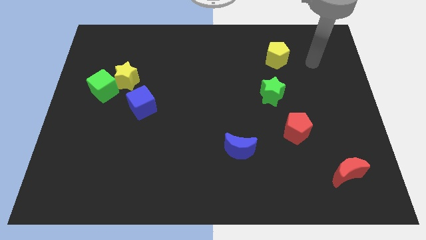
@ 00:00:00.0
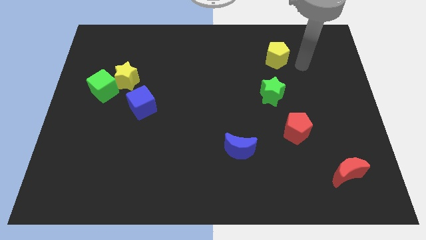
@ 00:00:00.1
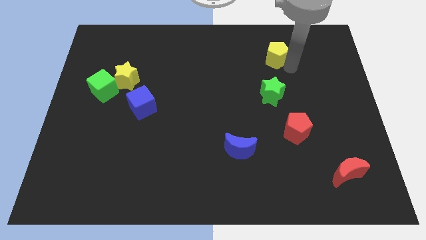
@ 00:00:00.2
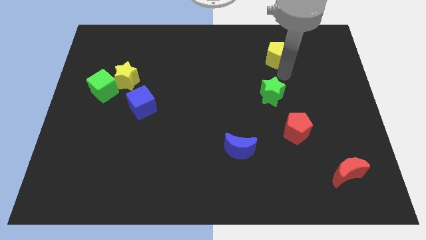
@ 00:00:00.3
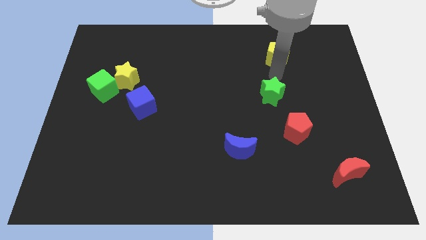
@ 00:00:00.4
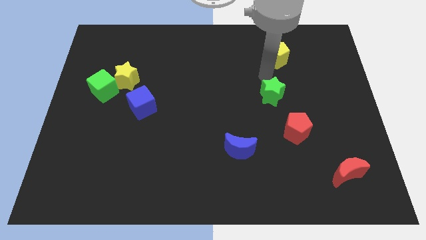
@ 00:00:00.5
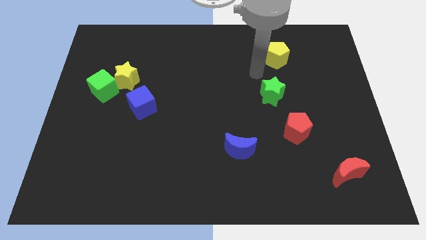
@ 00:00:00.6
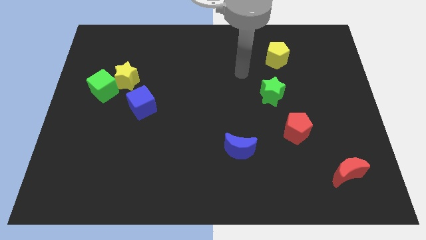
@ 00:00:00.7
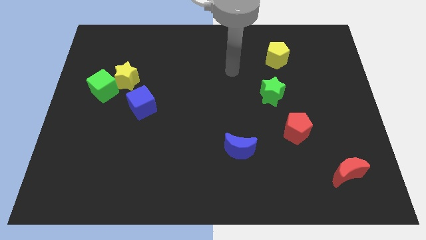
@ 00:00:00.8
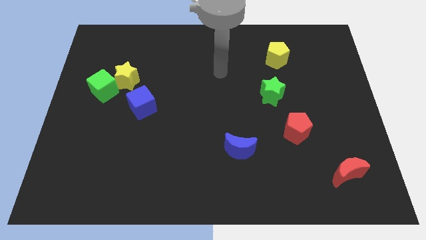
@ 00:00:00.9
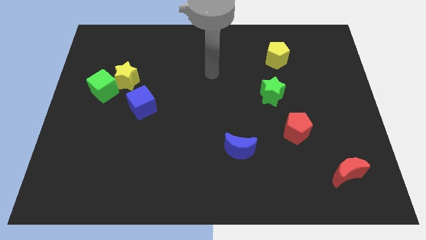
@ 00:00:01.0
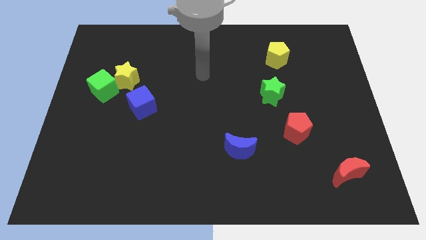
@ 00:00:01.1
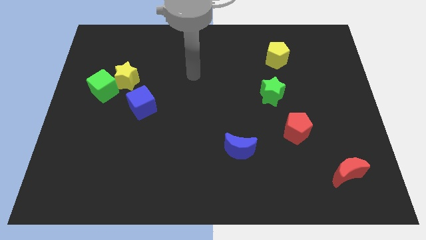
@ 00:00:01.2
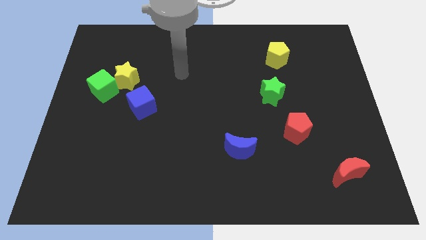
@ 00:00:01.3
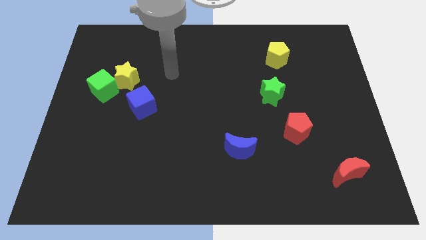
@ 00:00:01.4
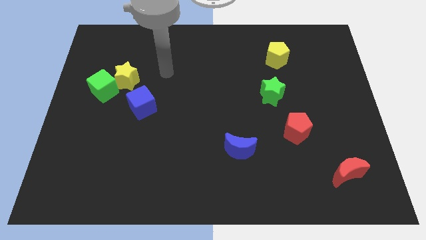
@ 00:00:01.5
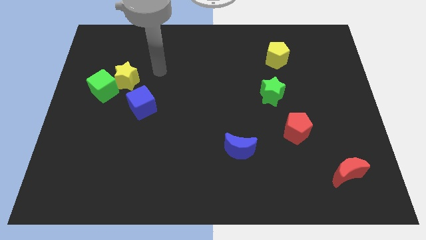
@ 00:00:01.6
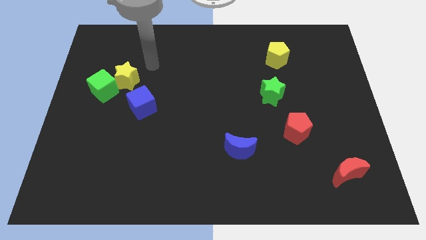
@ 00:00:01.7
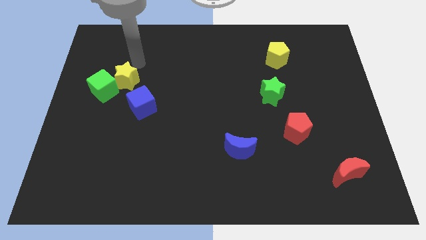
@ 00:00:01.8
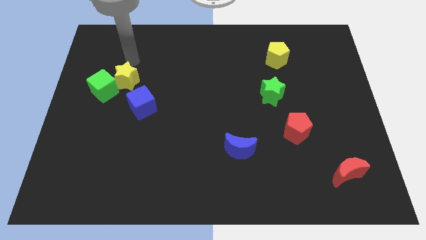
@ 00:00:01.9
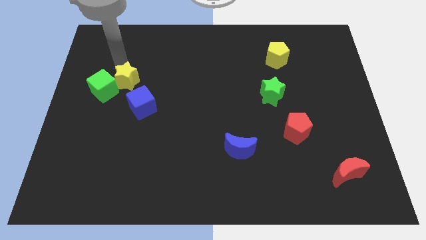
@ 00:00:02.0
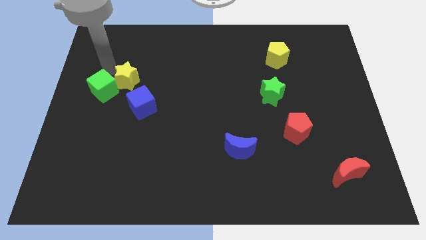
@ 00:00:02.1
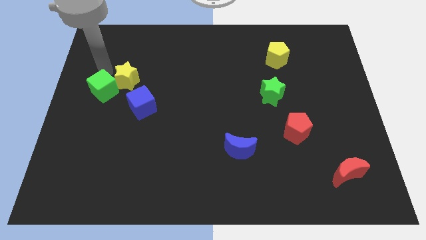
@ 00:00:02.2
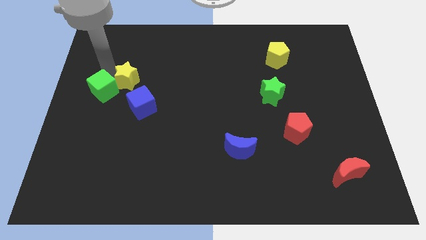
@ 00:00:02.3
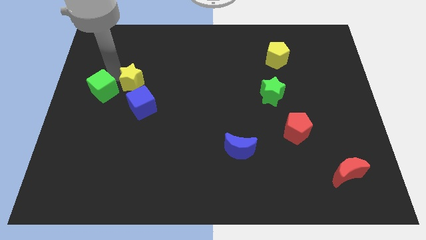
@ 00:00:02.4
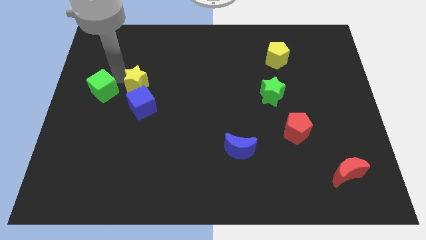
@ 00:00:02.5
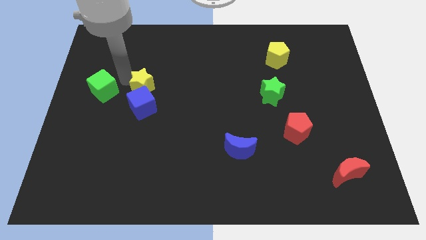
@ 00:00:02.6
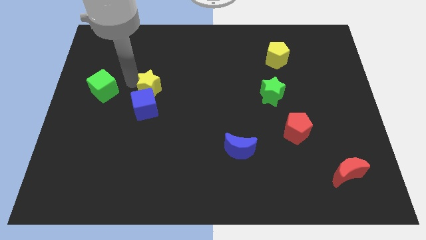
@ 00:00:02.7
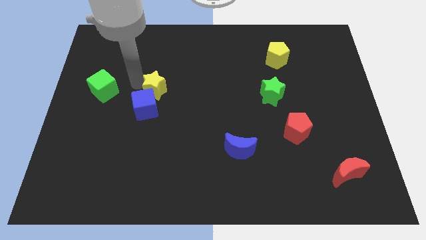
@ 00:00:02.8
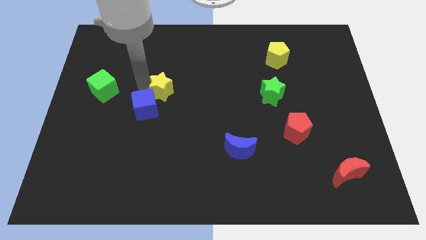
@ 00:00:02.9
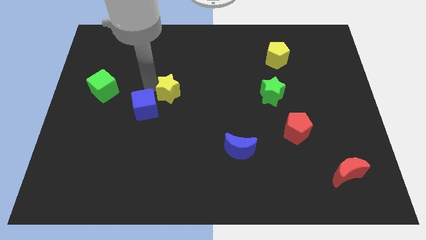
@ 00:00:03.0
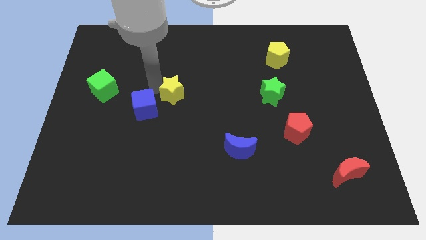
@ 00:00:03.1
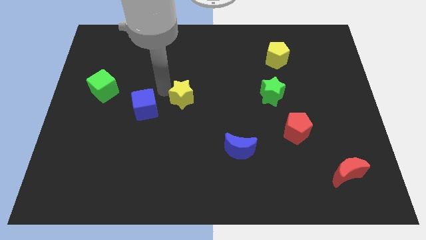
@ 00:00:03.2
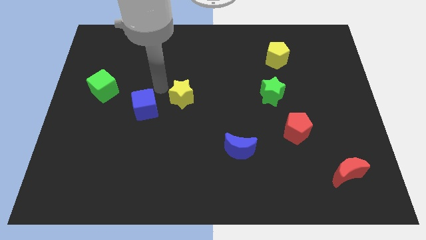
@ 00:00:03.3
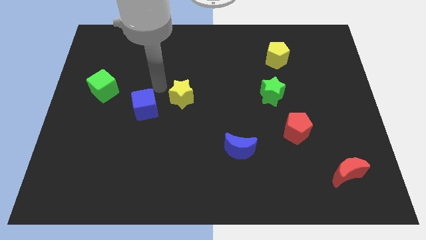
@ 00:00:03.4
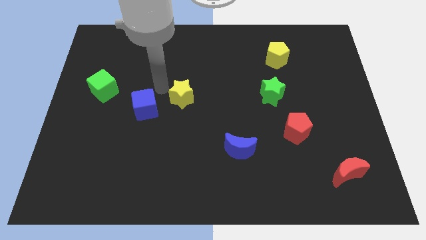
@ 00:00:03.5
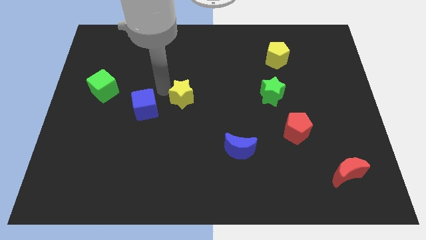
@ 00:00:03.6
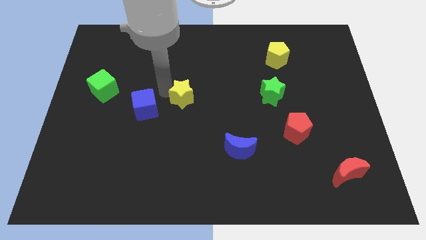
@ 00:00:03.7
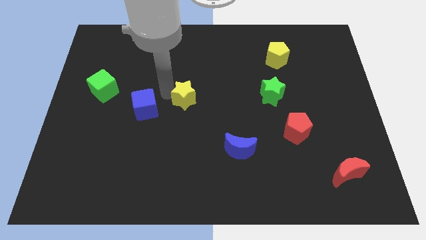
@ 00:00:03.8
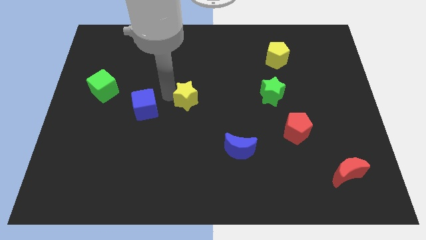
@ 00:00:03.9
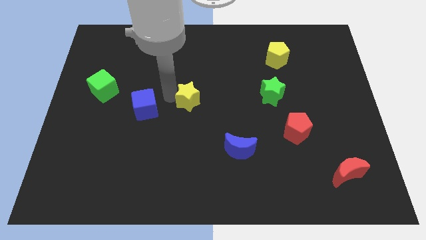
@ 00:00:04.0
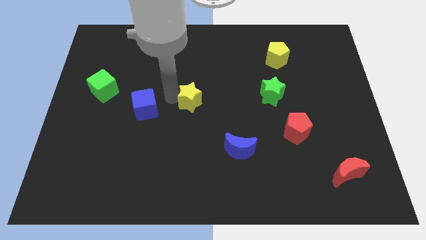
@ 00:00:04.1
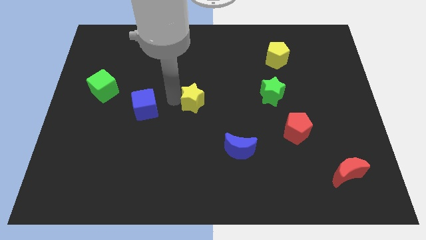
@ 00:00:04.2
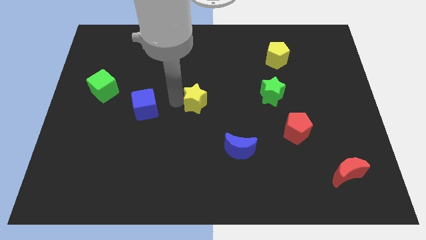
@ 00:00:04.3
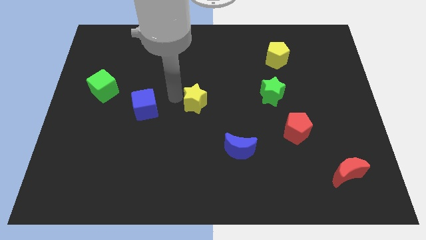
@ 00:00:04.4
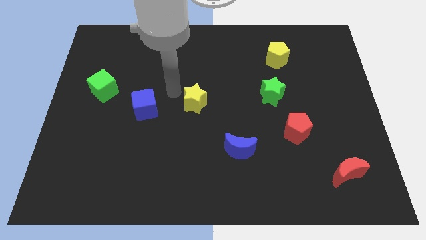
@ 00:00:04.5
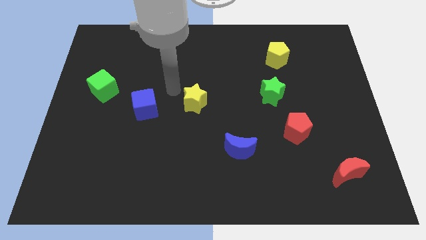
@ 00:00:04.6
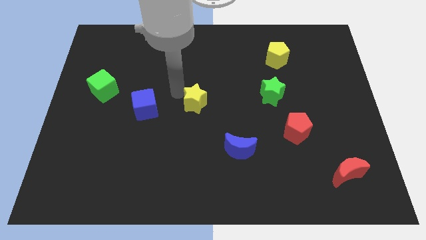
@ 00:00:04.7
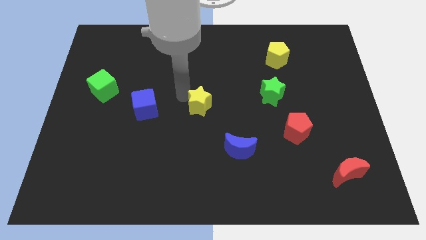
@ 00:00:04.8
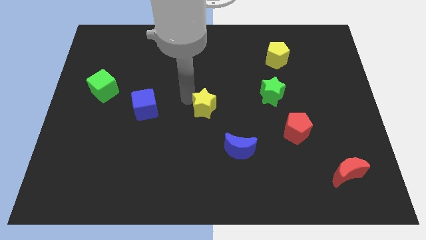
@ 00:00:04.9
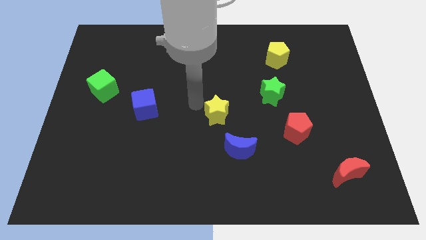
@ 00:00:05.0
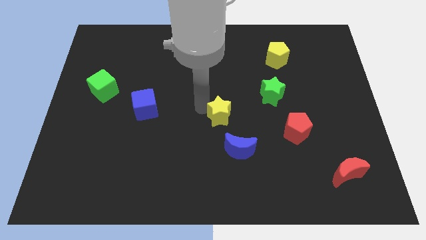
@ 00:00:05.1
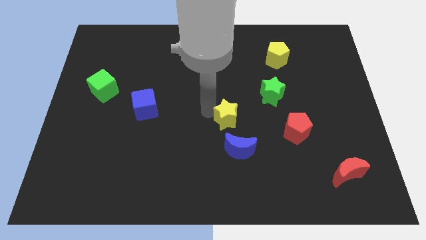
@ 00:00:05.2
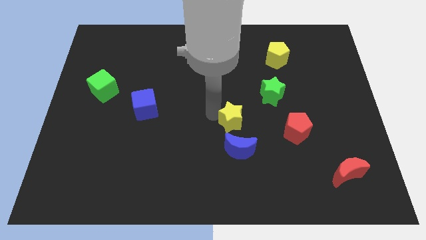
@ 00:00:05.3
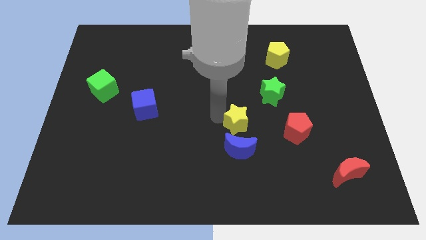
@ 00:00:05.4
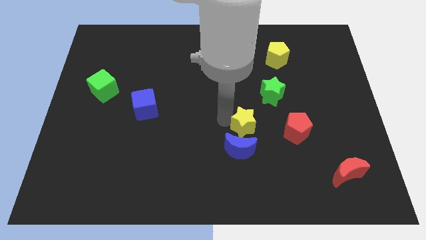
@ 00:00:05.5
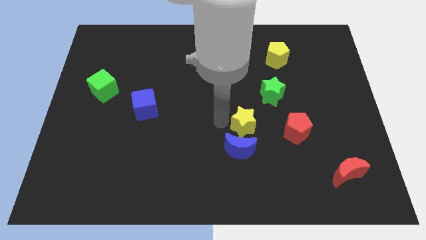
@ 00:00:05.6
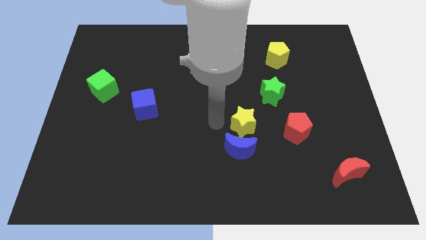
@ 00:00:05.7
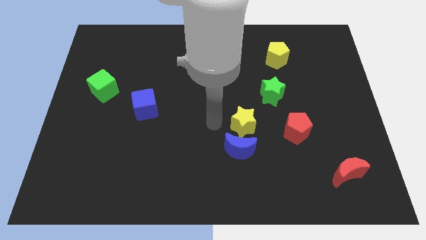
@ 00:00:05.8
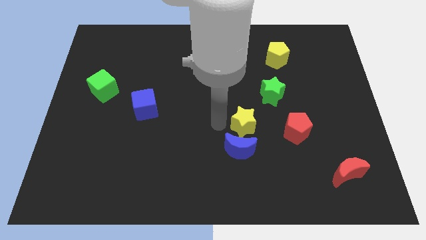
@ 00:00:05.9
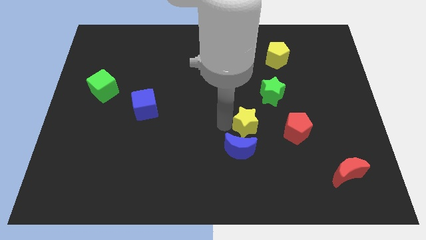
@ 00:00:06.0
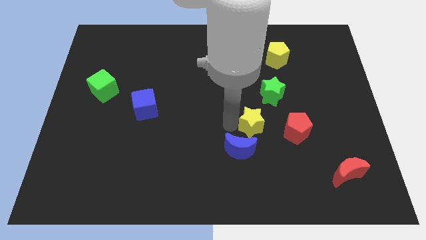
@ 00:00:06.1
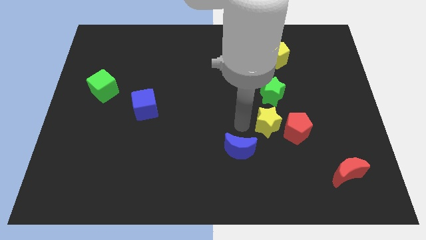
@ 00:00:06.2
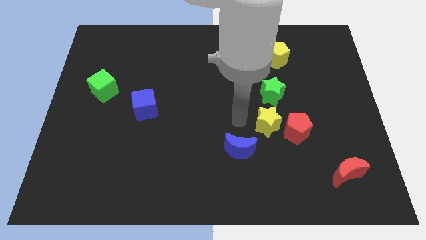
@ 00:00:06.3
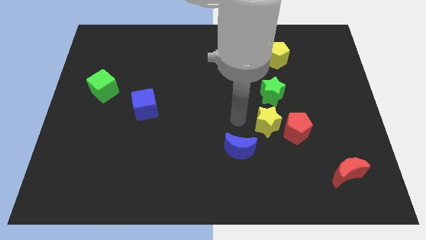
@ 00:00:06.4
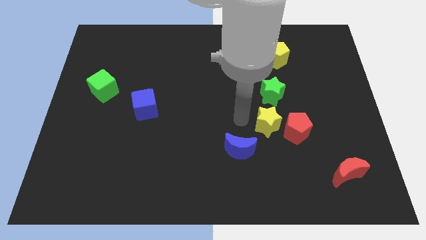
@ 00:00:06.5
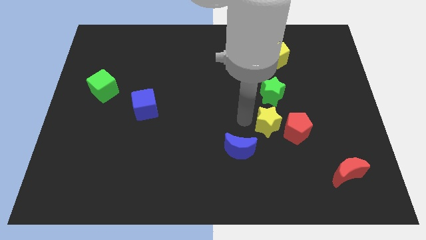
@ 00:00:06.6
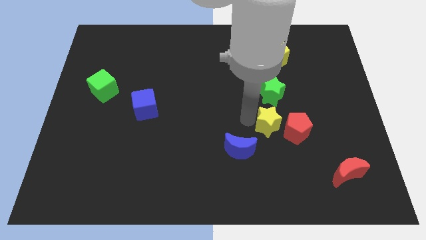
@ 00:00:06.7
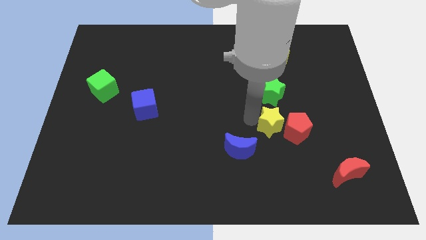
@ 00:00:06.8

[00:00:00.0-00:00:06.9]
put the yellow star next to the red pentagon
